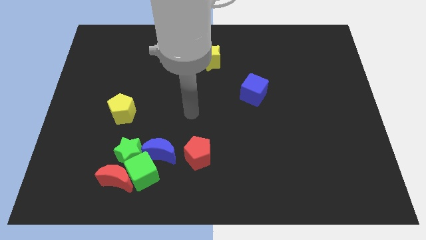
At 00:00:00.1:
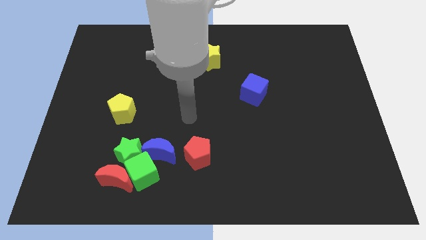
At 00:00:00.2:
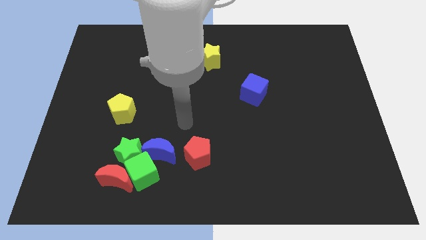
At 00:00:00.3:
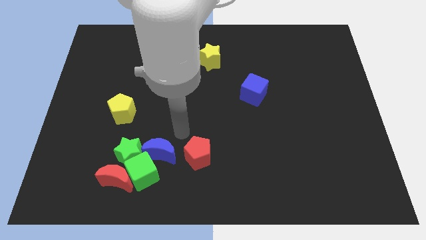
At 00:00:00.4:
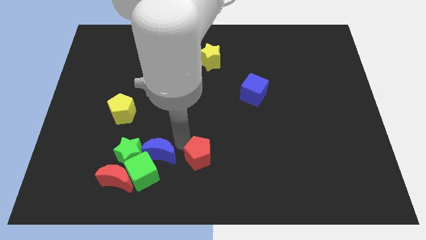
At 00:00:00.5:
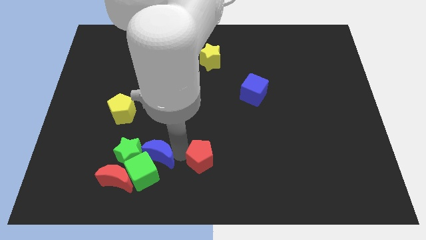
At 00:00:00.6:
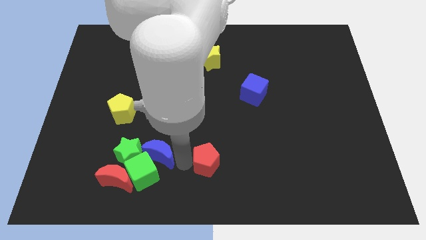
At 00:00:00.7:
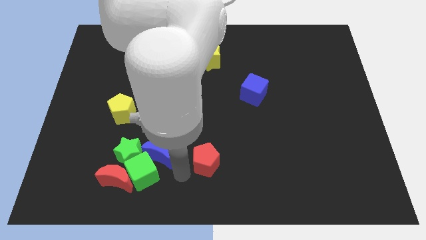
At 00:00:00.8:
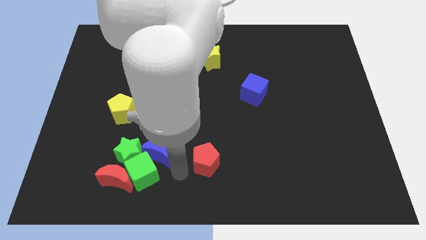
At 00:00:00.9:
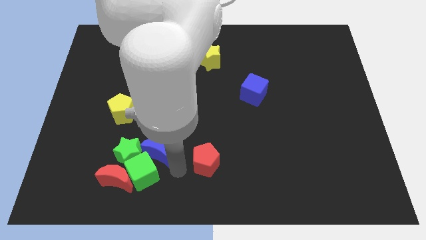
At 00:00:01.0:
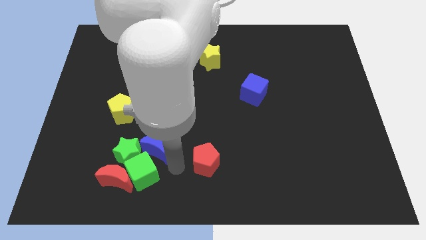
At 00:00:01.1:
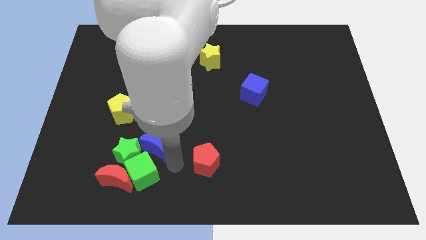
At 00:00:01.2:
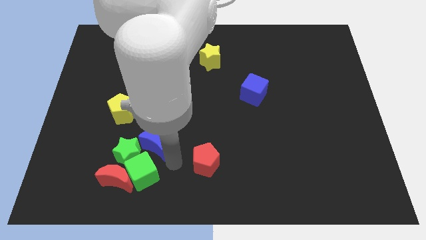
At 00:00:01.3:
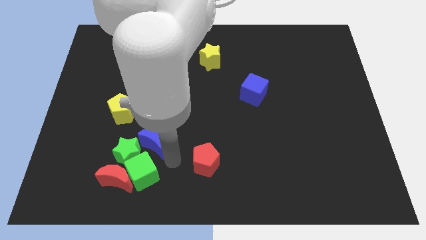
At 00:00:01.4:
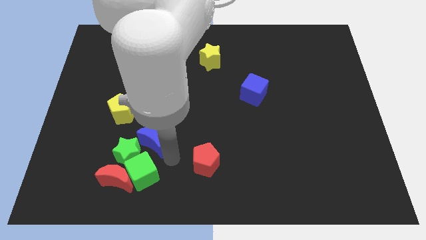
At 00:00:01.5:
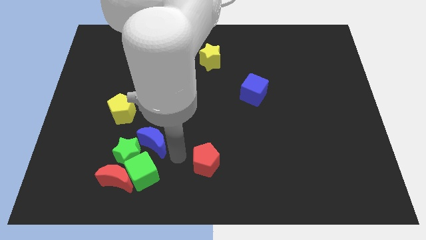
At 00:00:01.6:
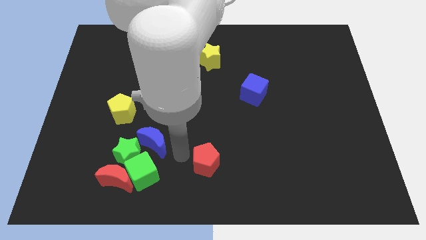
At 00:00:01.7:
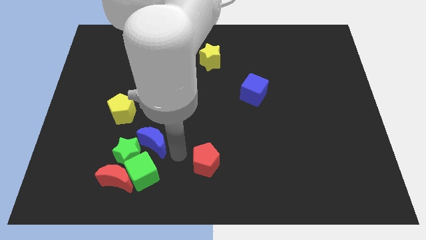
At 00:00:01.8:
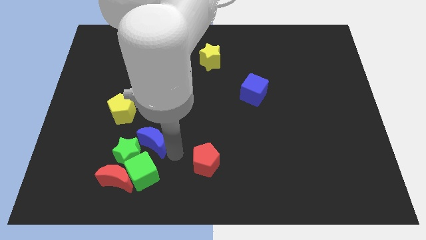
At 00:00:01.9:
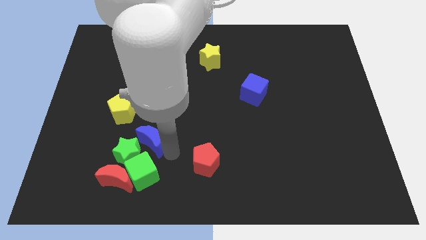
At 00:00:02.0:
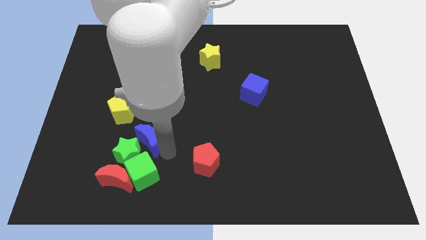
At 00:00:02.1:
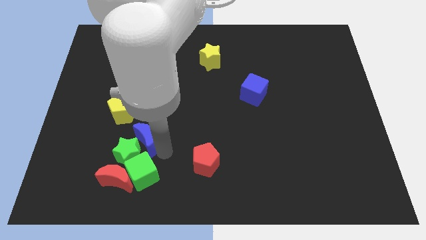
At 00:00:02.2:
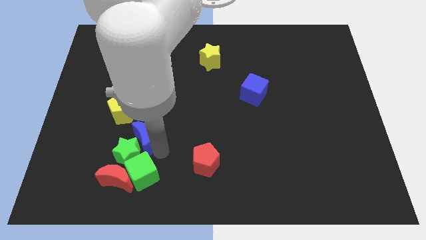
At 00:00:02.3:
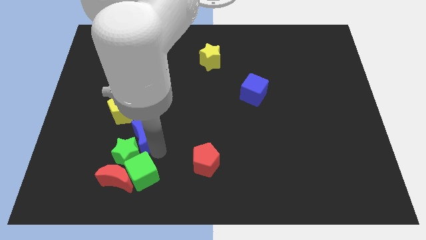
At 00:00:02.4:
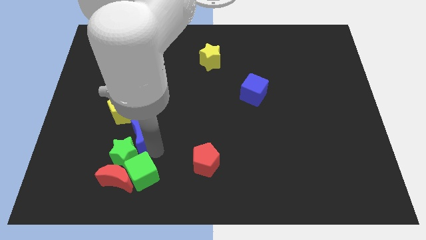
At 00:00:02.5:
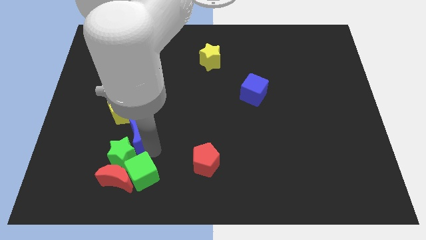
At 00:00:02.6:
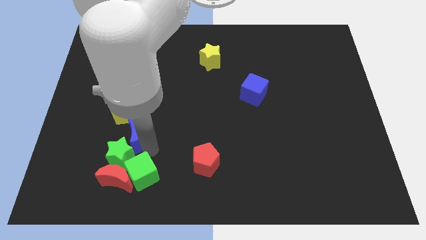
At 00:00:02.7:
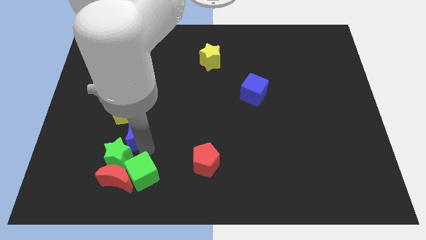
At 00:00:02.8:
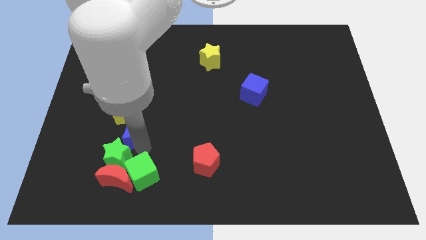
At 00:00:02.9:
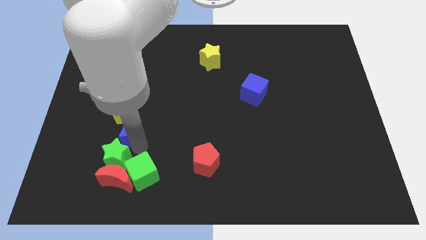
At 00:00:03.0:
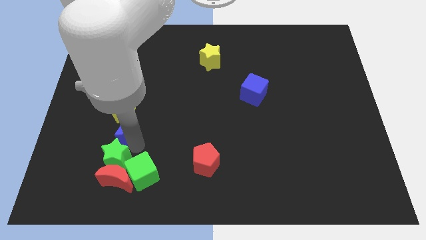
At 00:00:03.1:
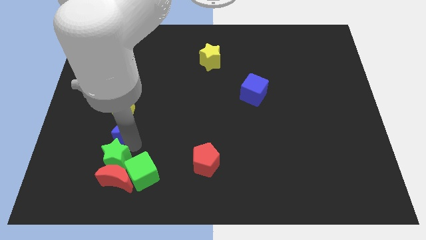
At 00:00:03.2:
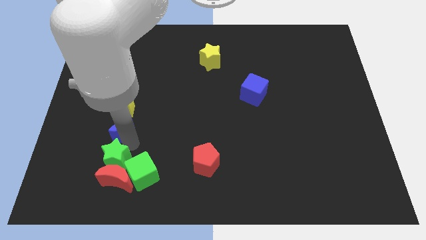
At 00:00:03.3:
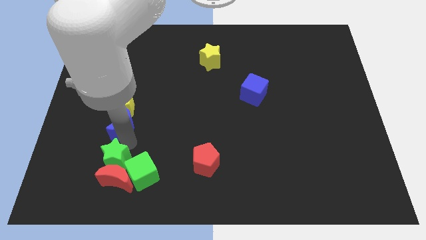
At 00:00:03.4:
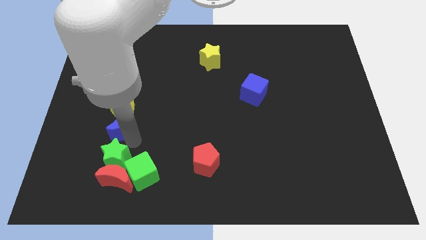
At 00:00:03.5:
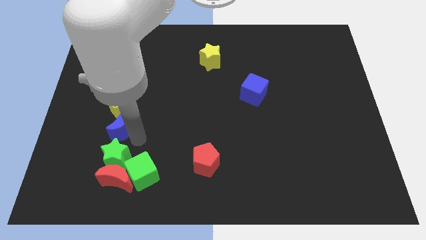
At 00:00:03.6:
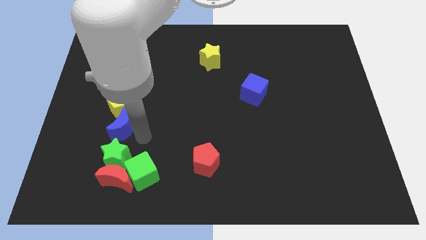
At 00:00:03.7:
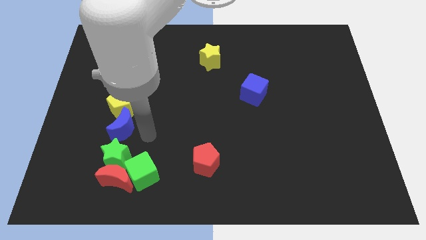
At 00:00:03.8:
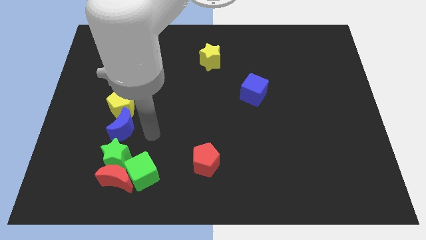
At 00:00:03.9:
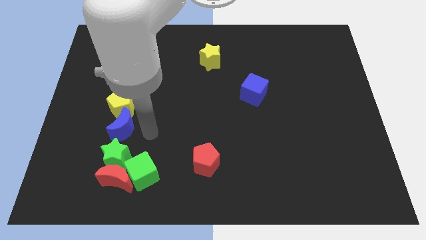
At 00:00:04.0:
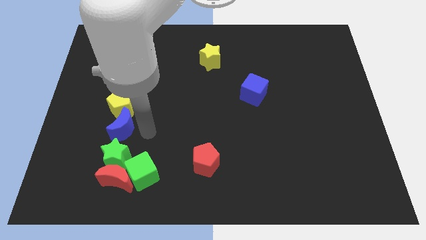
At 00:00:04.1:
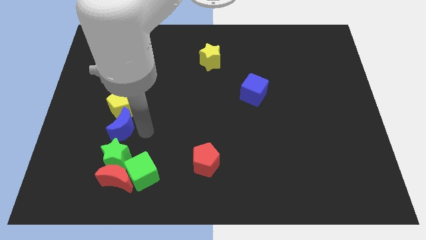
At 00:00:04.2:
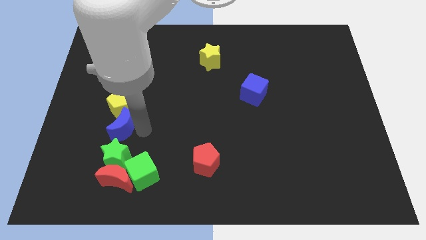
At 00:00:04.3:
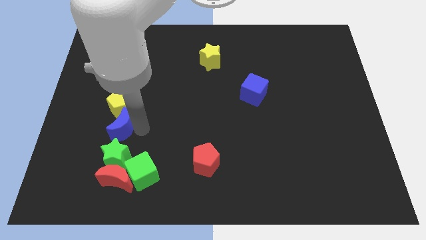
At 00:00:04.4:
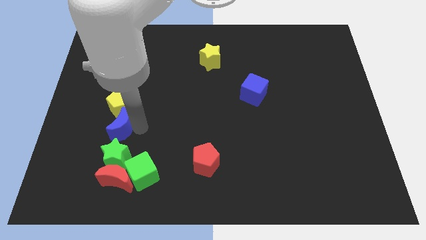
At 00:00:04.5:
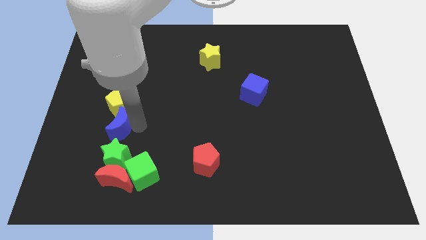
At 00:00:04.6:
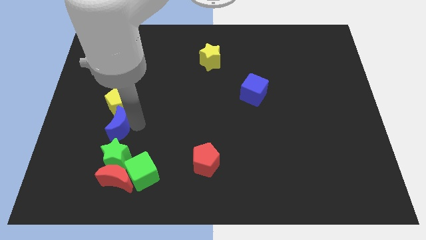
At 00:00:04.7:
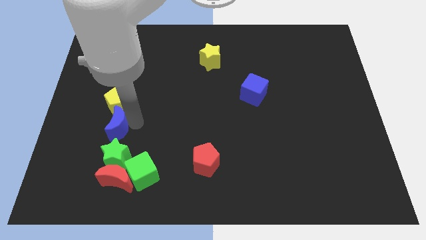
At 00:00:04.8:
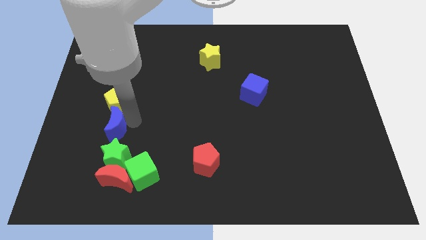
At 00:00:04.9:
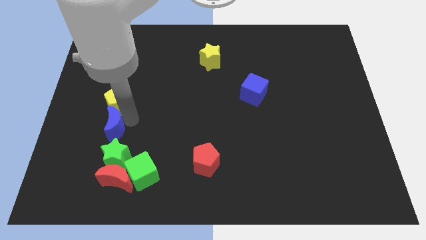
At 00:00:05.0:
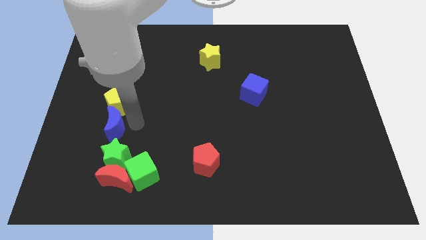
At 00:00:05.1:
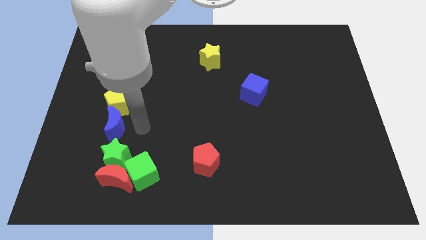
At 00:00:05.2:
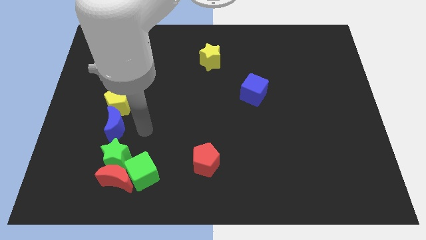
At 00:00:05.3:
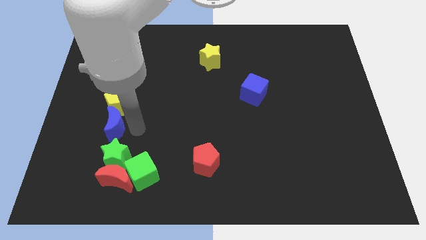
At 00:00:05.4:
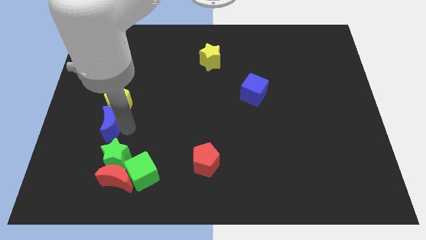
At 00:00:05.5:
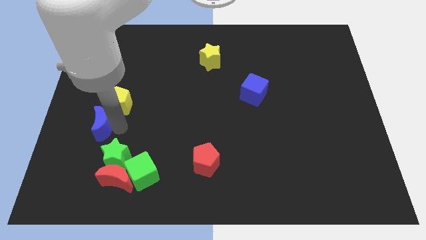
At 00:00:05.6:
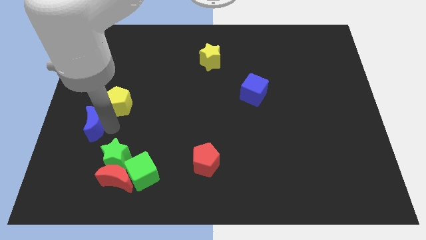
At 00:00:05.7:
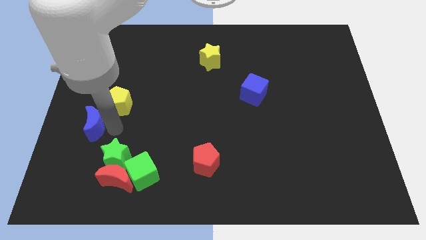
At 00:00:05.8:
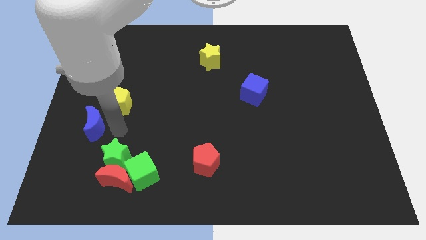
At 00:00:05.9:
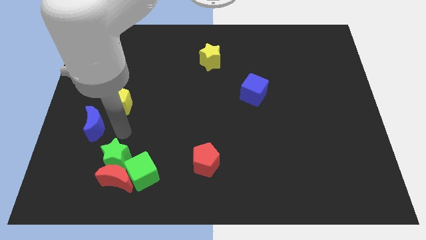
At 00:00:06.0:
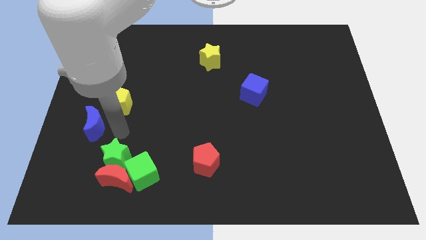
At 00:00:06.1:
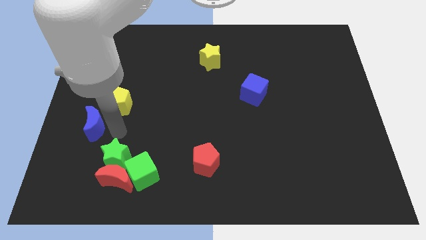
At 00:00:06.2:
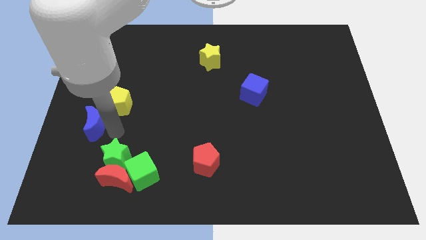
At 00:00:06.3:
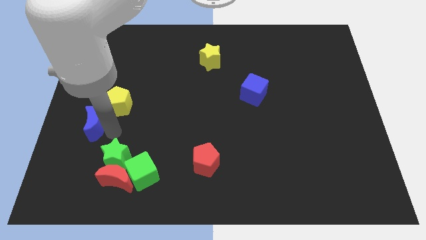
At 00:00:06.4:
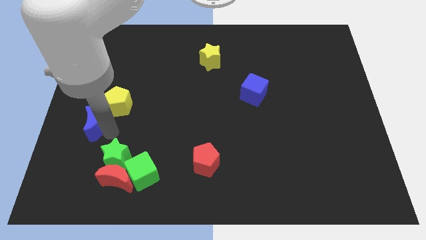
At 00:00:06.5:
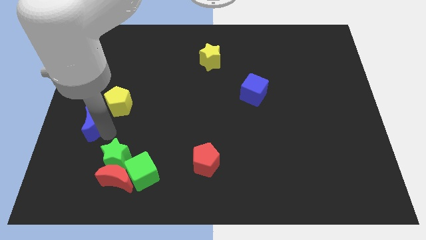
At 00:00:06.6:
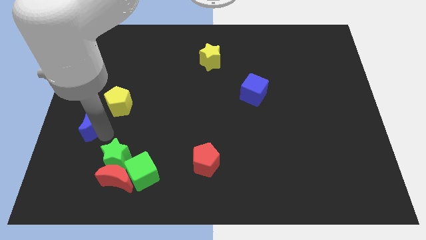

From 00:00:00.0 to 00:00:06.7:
put the blue moon to the left side of the board

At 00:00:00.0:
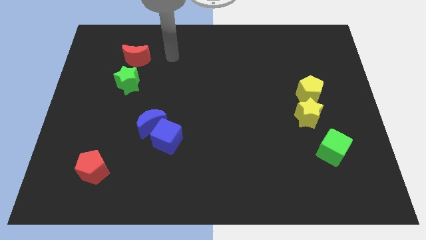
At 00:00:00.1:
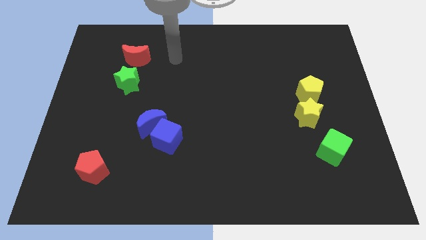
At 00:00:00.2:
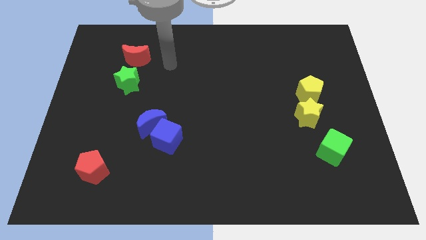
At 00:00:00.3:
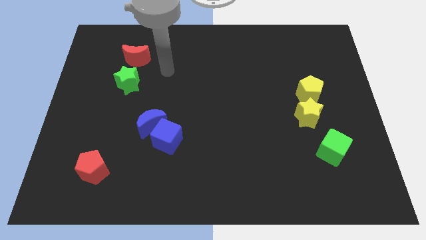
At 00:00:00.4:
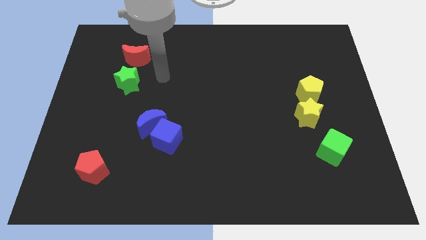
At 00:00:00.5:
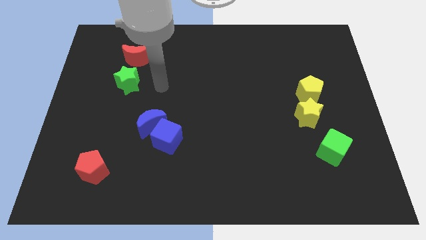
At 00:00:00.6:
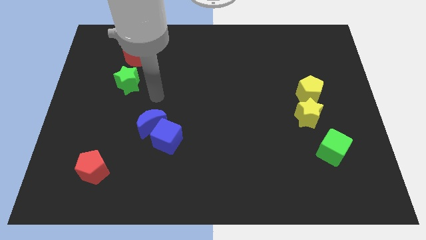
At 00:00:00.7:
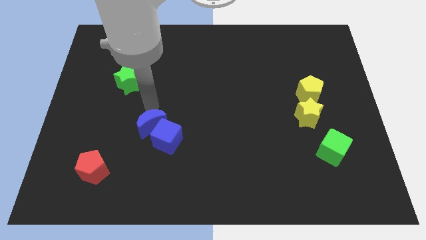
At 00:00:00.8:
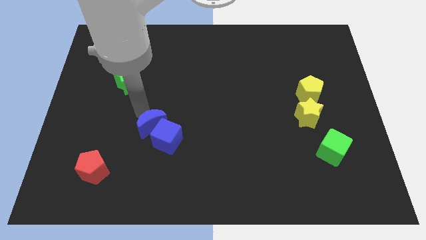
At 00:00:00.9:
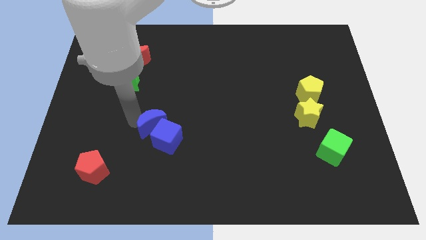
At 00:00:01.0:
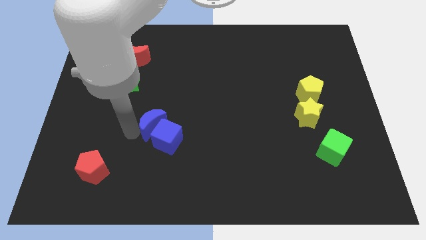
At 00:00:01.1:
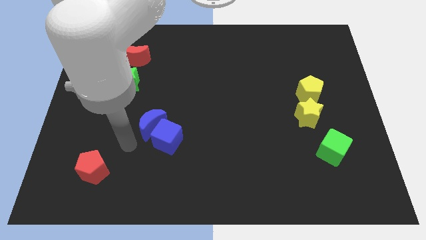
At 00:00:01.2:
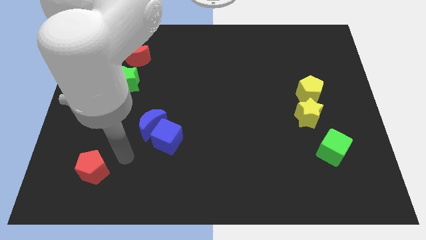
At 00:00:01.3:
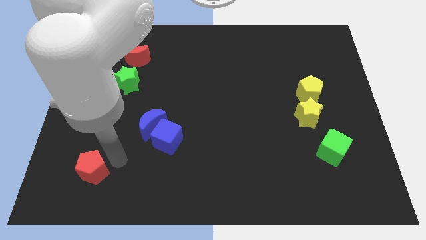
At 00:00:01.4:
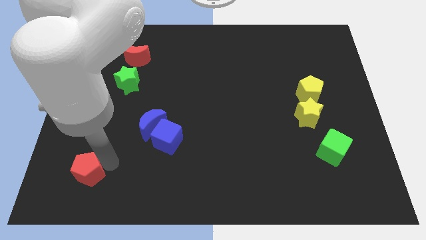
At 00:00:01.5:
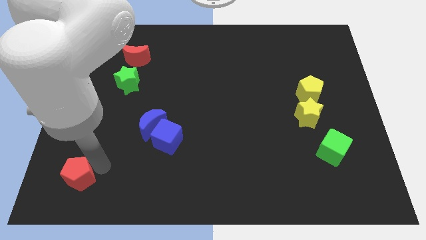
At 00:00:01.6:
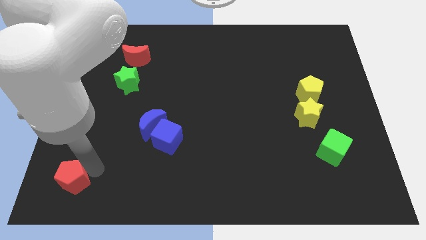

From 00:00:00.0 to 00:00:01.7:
slide the red pentagon to the bottom left
